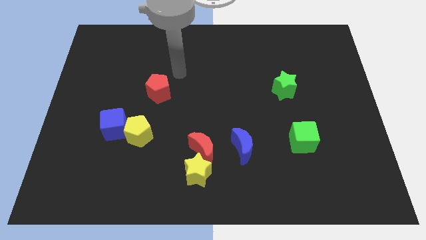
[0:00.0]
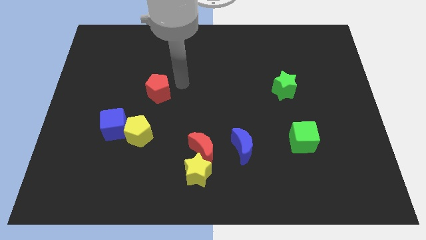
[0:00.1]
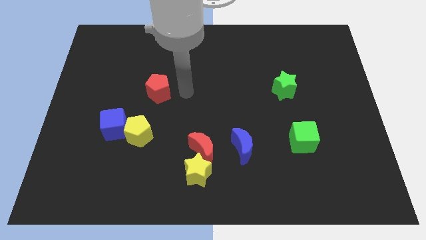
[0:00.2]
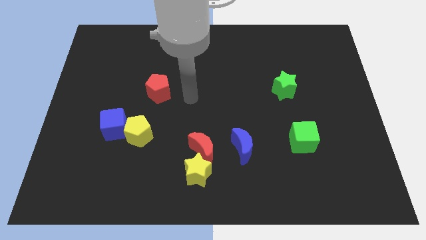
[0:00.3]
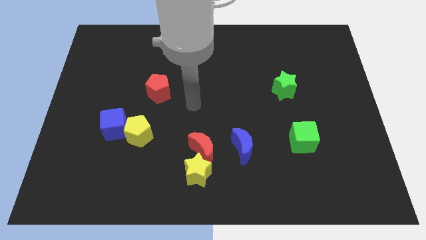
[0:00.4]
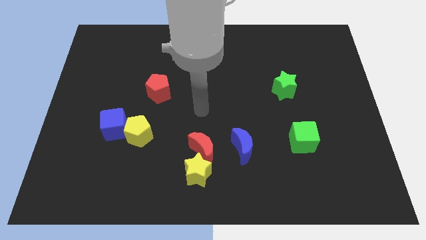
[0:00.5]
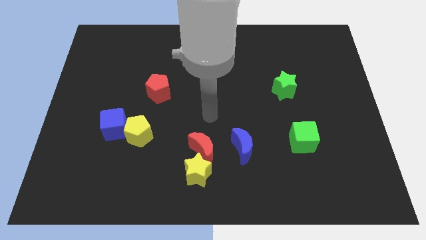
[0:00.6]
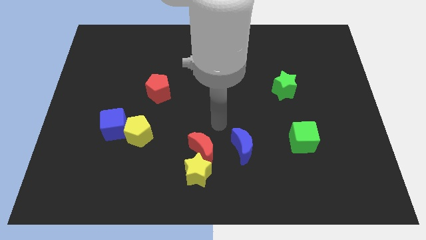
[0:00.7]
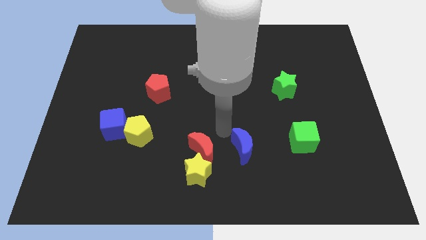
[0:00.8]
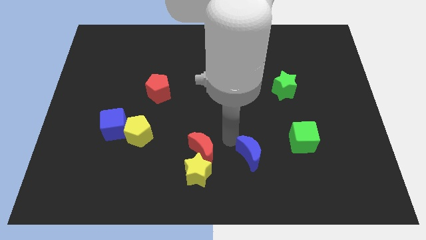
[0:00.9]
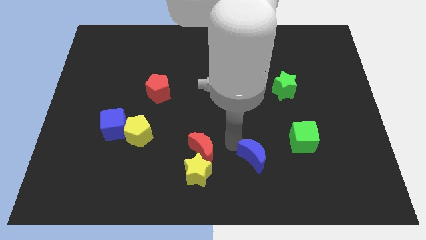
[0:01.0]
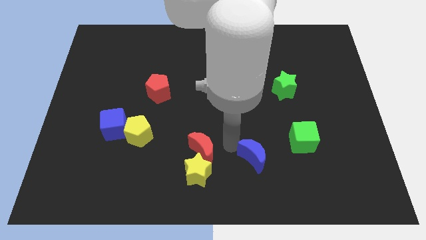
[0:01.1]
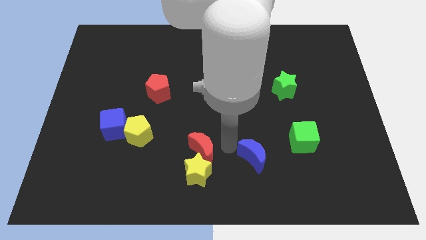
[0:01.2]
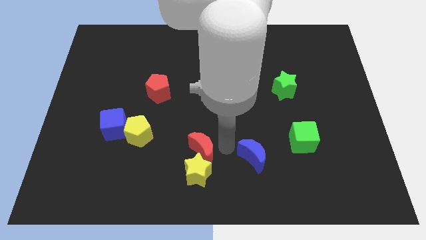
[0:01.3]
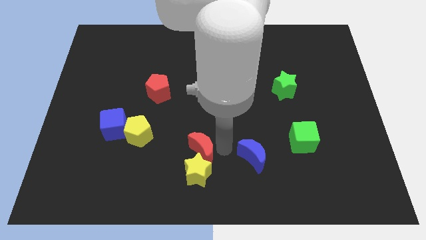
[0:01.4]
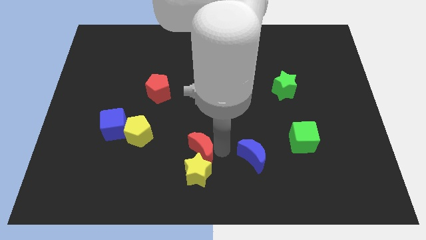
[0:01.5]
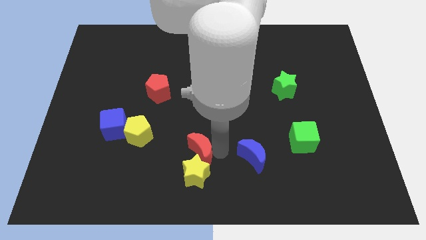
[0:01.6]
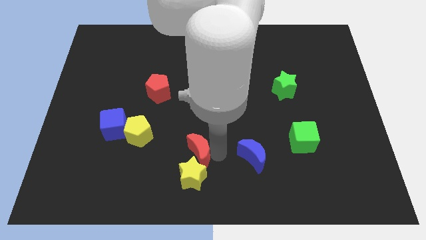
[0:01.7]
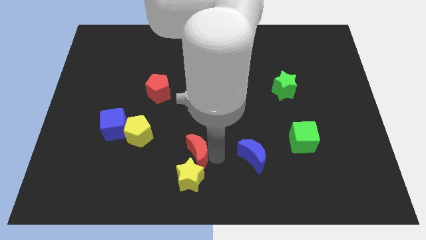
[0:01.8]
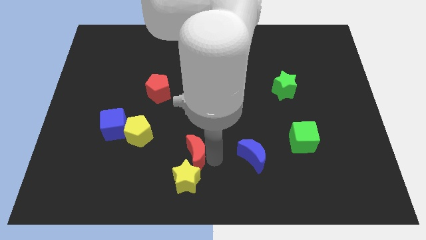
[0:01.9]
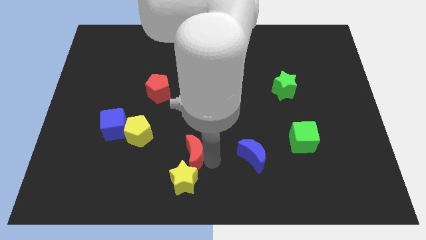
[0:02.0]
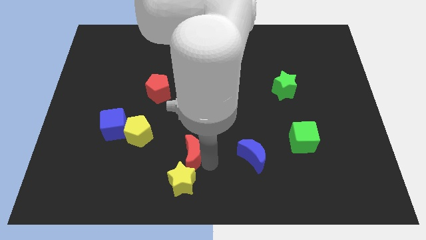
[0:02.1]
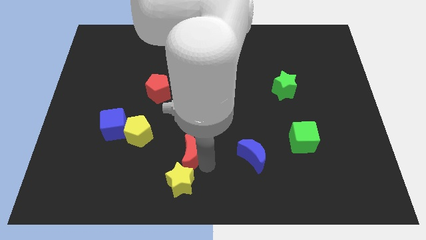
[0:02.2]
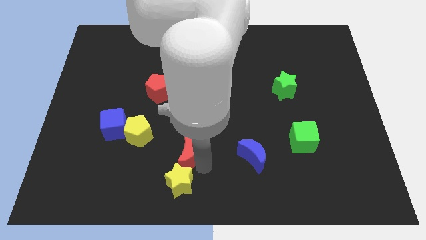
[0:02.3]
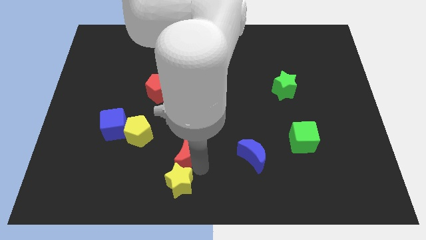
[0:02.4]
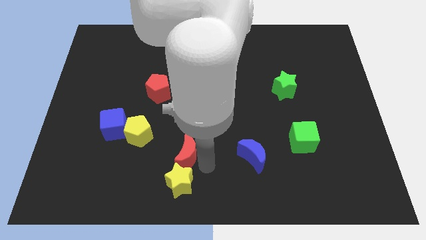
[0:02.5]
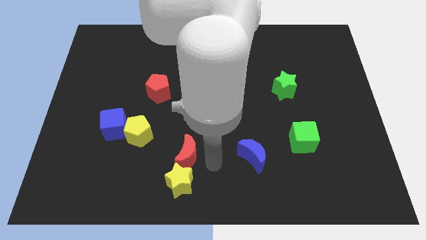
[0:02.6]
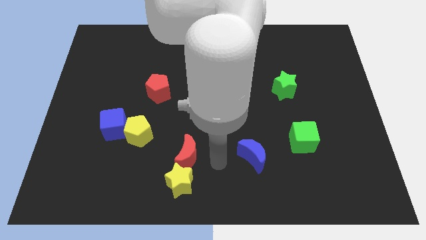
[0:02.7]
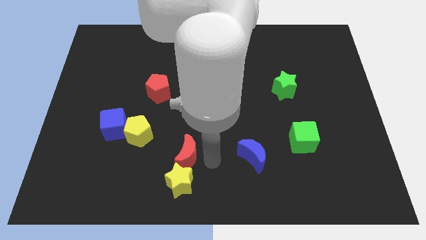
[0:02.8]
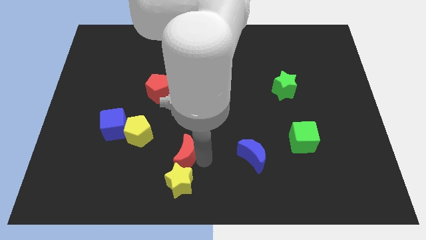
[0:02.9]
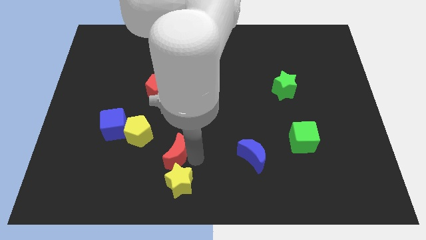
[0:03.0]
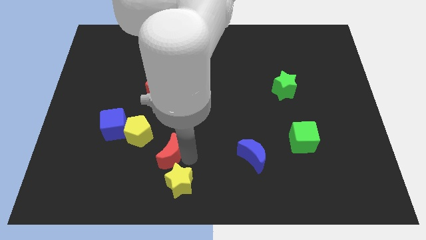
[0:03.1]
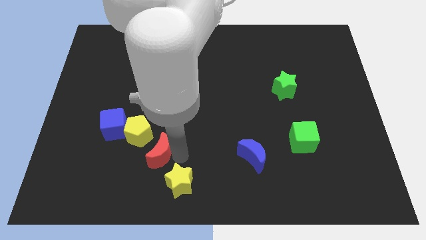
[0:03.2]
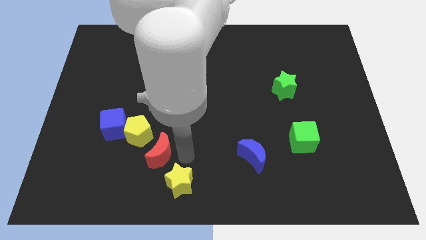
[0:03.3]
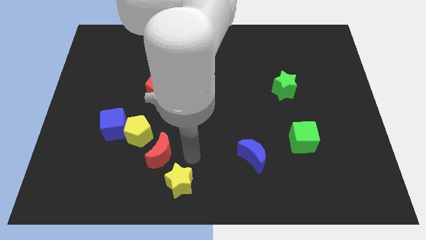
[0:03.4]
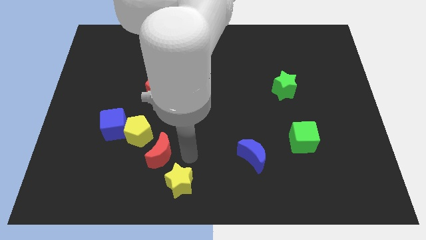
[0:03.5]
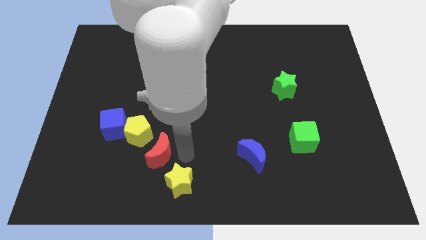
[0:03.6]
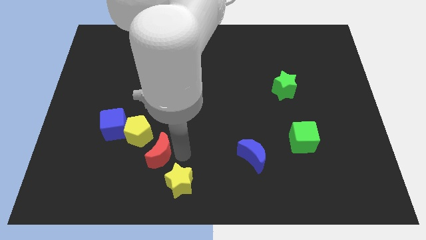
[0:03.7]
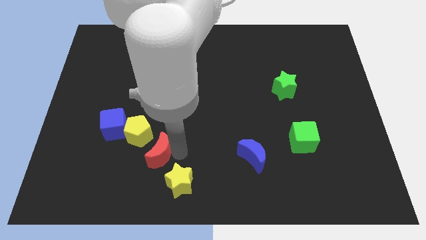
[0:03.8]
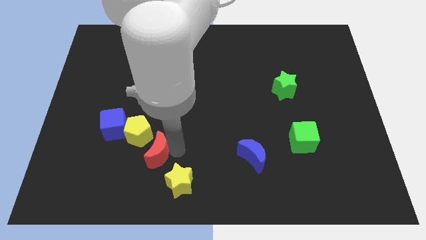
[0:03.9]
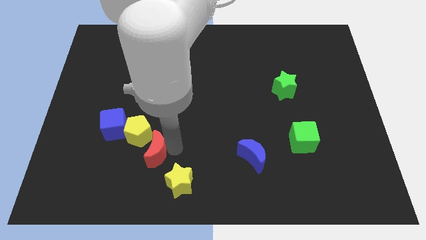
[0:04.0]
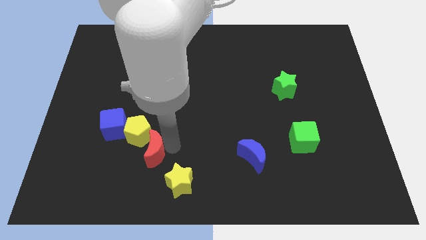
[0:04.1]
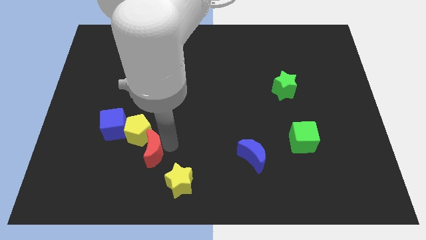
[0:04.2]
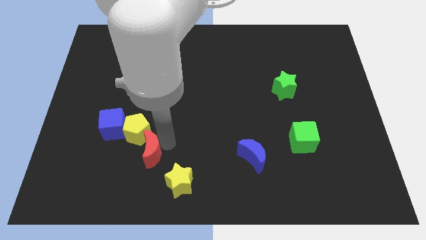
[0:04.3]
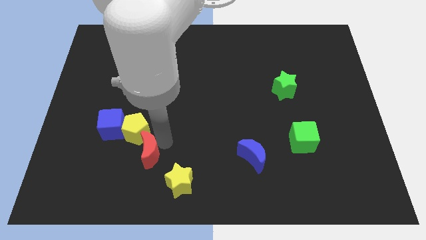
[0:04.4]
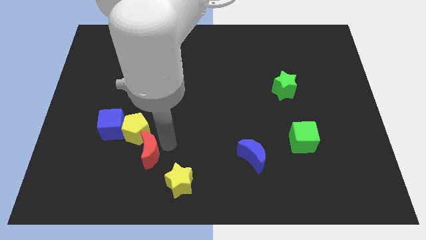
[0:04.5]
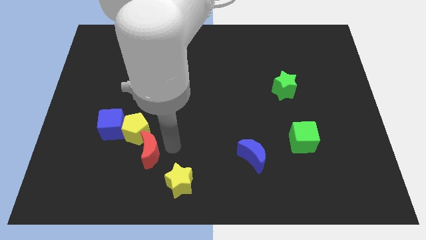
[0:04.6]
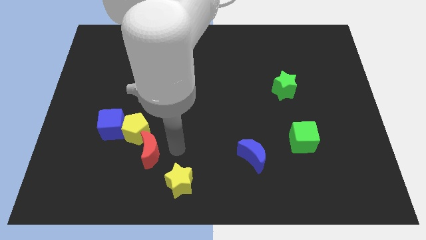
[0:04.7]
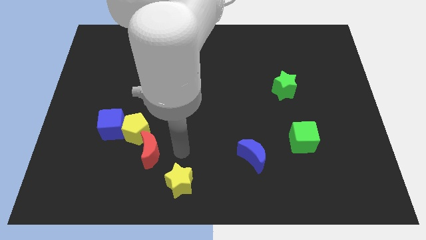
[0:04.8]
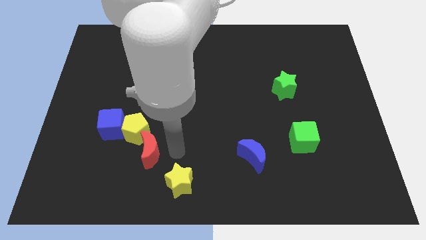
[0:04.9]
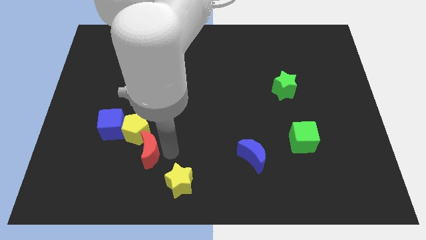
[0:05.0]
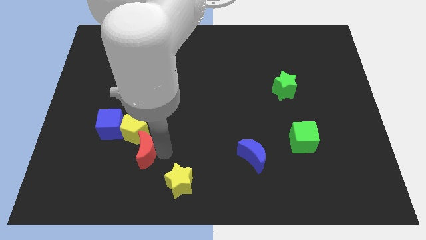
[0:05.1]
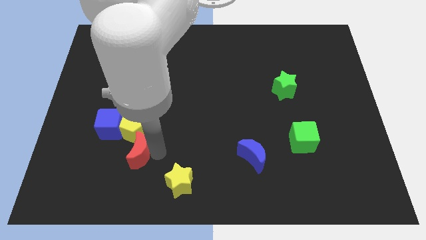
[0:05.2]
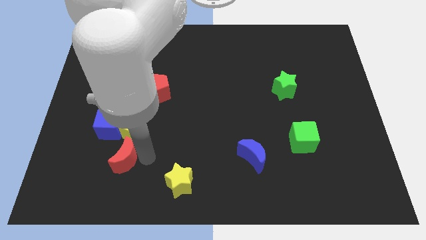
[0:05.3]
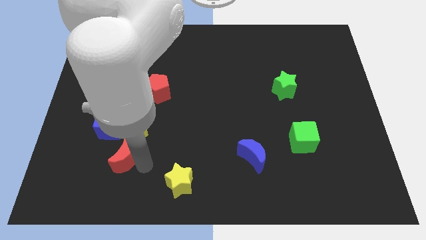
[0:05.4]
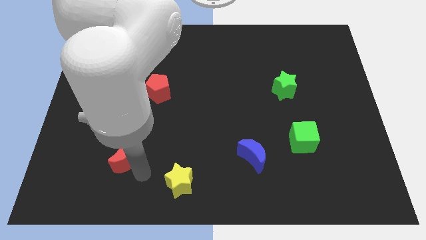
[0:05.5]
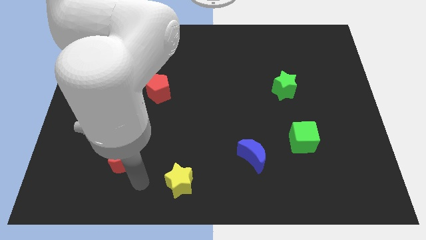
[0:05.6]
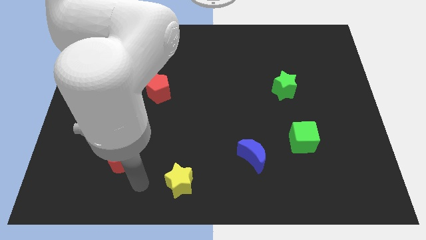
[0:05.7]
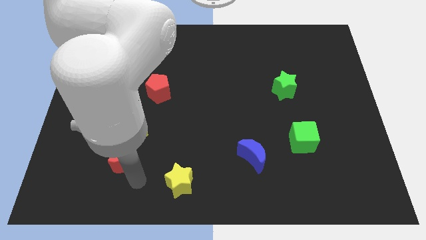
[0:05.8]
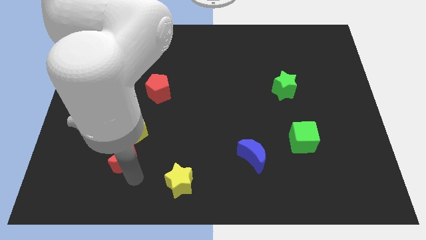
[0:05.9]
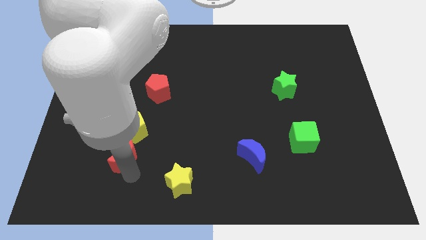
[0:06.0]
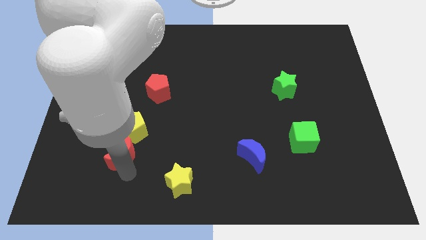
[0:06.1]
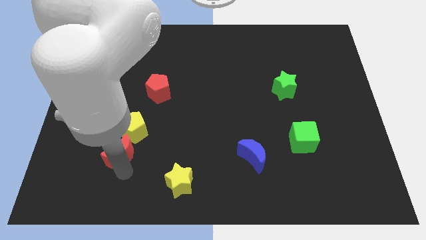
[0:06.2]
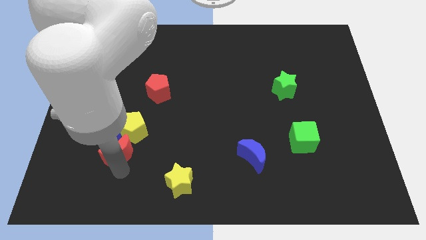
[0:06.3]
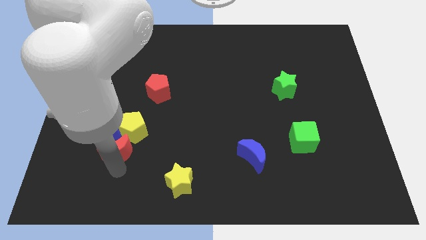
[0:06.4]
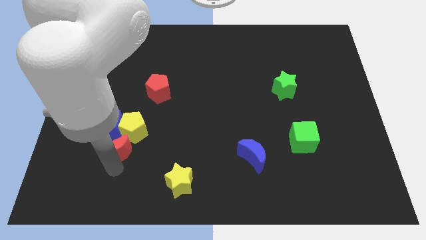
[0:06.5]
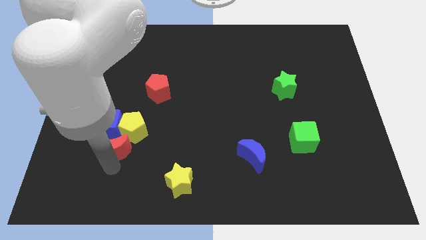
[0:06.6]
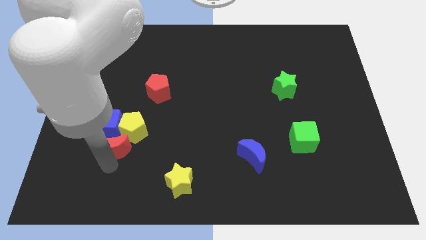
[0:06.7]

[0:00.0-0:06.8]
put the red moon close to the blue cube

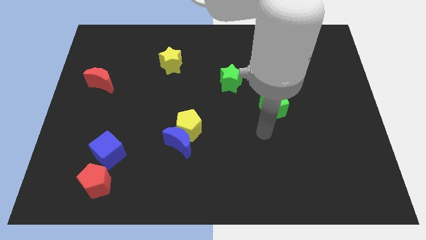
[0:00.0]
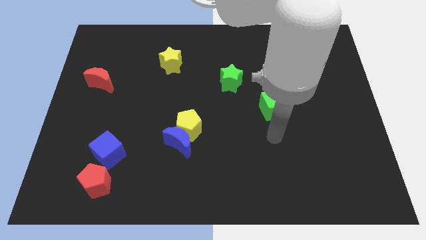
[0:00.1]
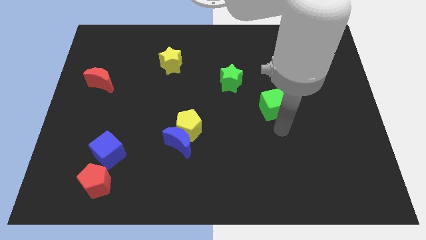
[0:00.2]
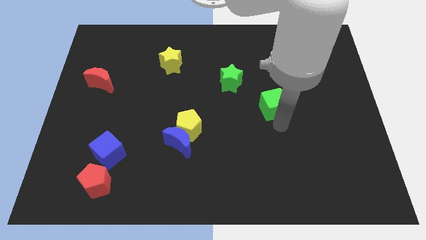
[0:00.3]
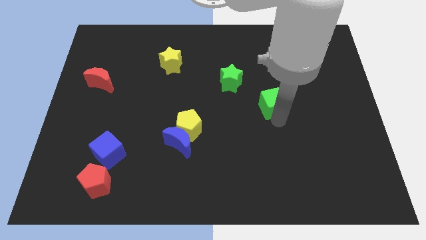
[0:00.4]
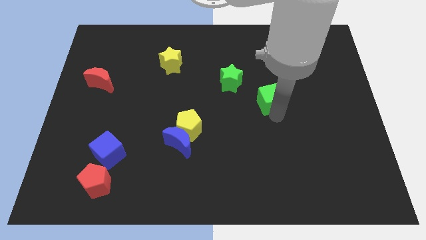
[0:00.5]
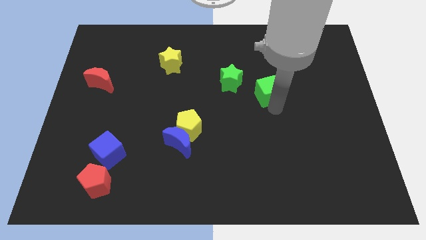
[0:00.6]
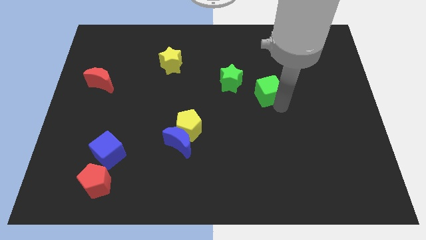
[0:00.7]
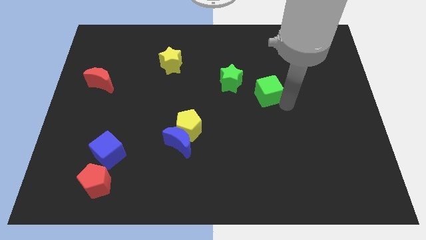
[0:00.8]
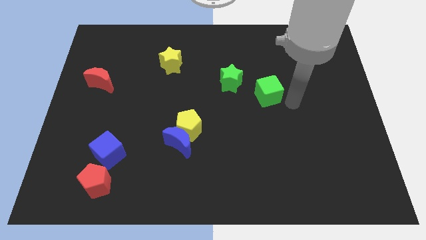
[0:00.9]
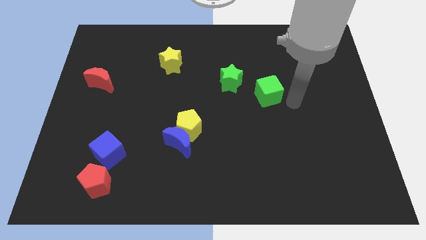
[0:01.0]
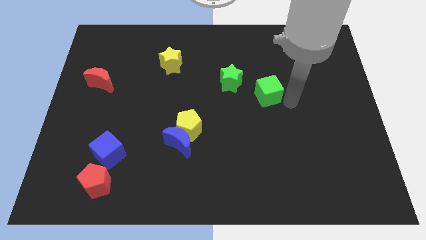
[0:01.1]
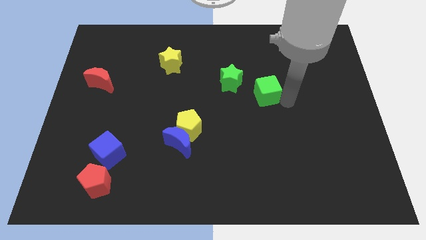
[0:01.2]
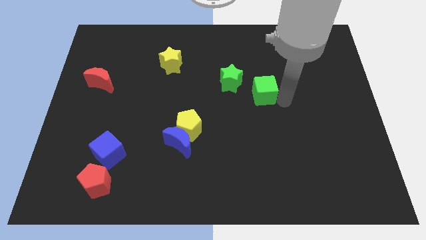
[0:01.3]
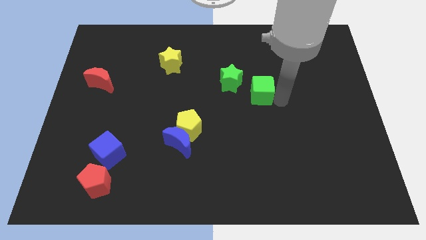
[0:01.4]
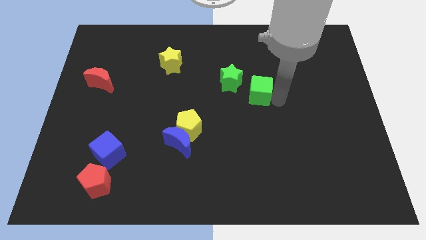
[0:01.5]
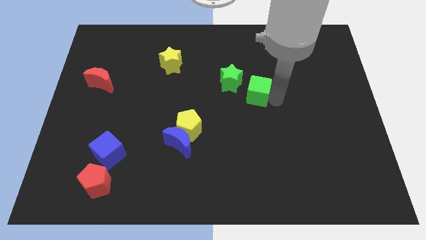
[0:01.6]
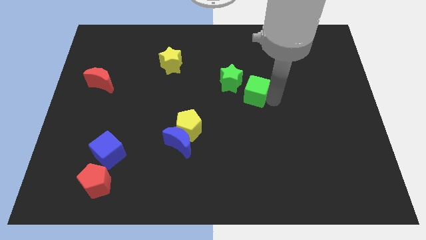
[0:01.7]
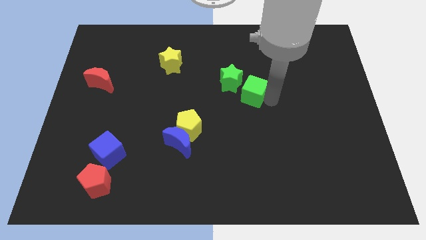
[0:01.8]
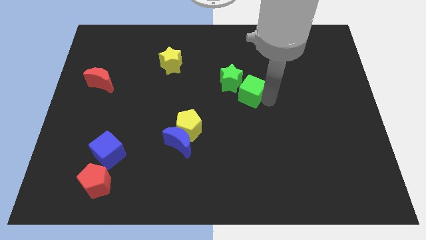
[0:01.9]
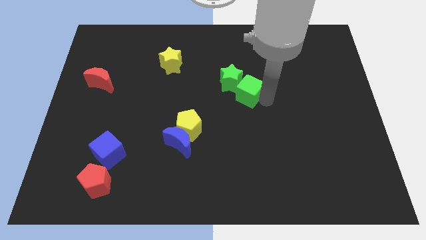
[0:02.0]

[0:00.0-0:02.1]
slide the green cube next to the green star
